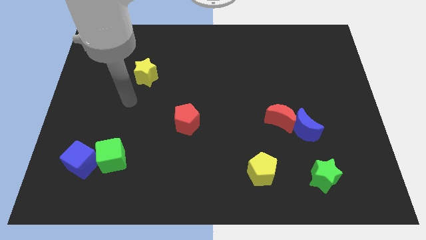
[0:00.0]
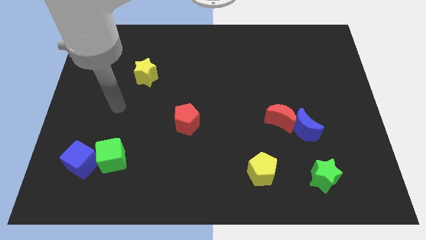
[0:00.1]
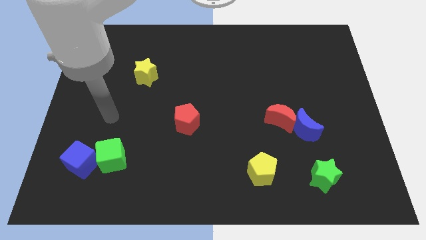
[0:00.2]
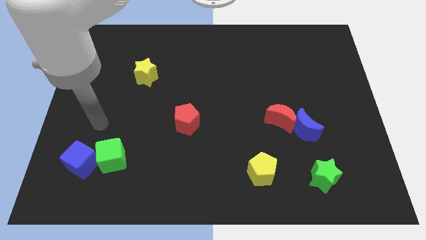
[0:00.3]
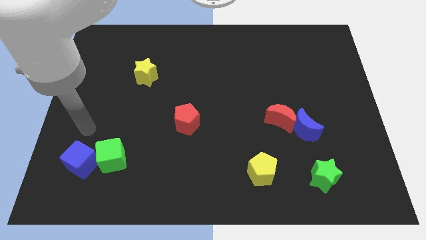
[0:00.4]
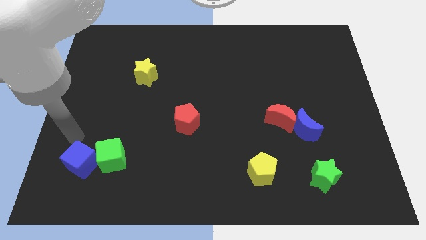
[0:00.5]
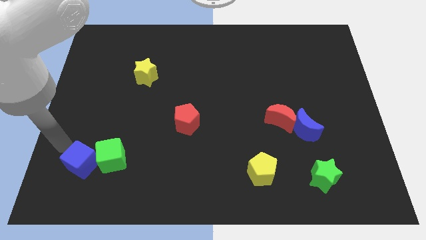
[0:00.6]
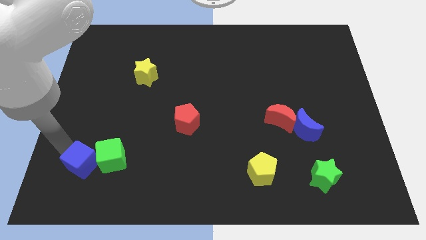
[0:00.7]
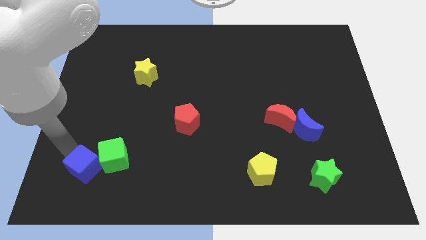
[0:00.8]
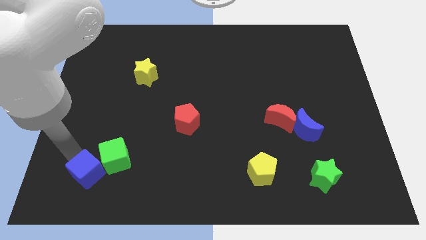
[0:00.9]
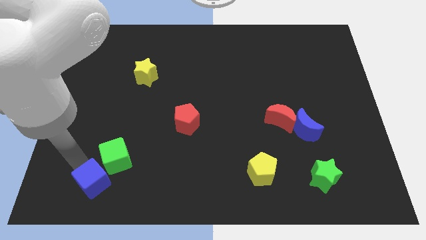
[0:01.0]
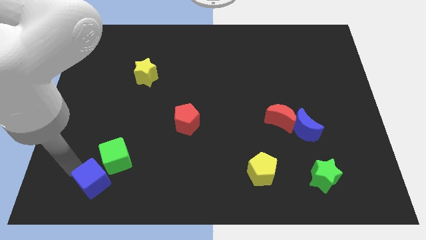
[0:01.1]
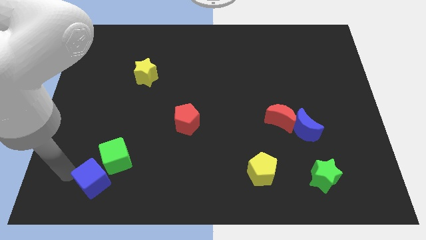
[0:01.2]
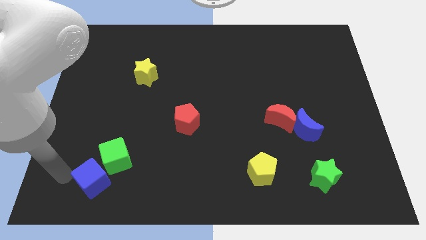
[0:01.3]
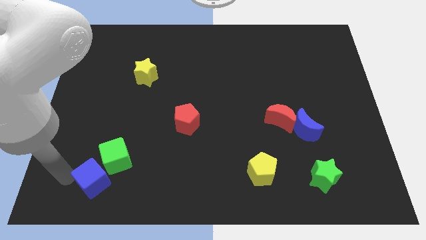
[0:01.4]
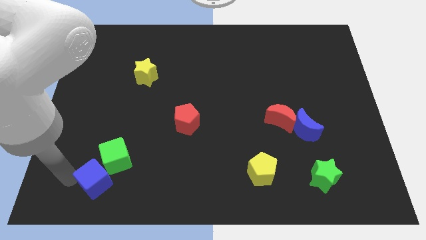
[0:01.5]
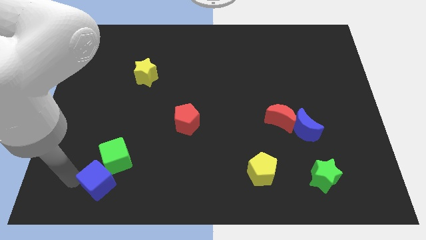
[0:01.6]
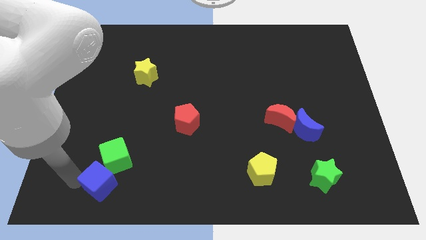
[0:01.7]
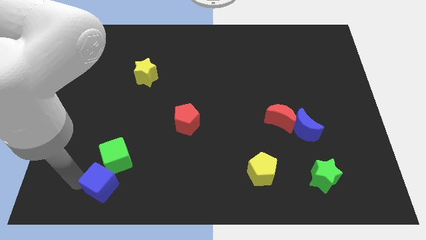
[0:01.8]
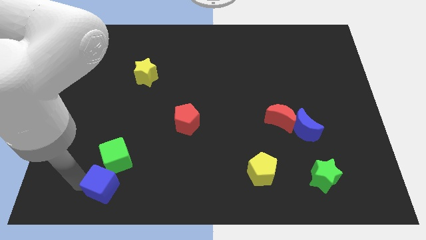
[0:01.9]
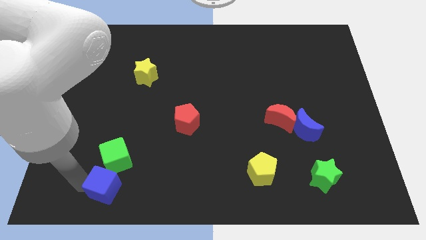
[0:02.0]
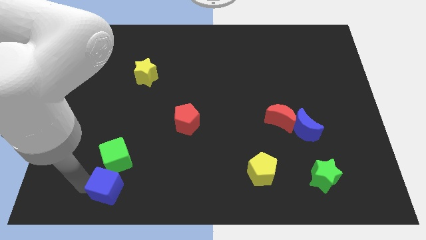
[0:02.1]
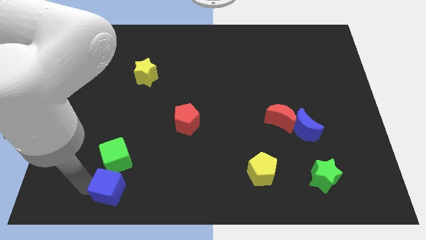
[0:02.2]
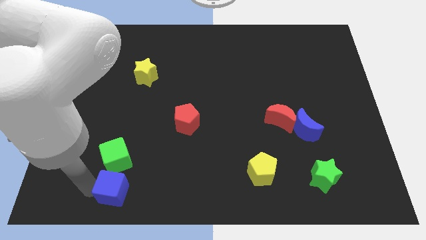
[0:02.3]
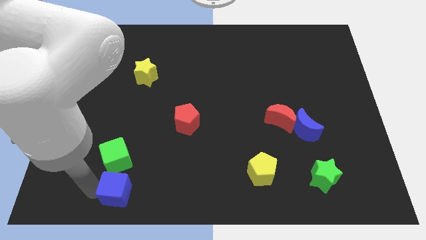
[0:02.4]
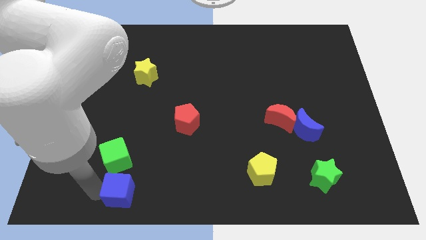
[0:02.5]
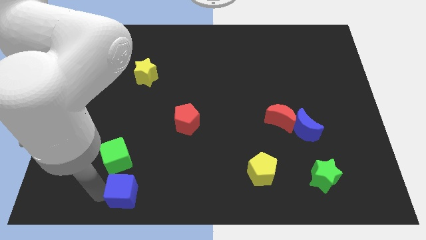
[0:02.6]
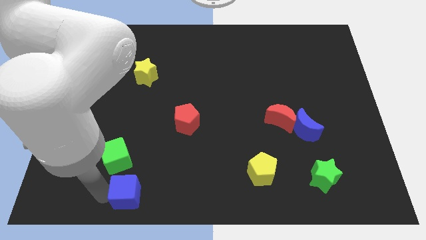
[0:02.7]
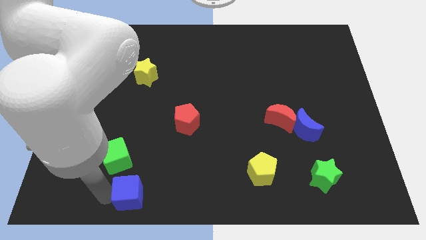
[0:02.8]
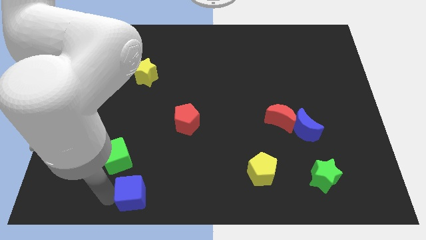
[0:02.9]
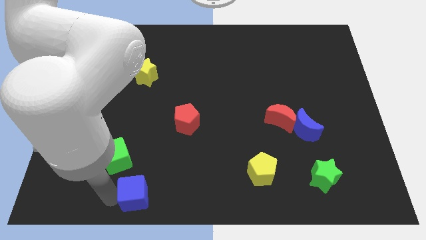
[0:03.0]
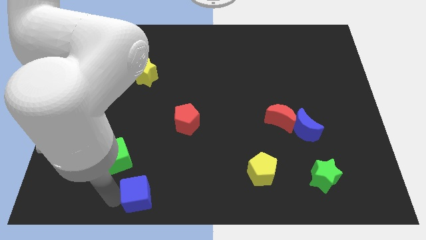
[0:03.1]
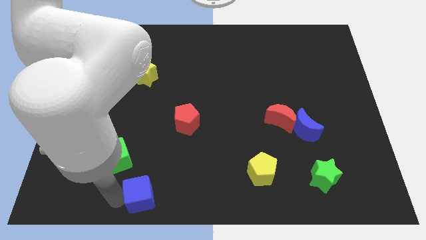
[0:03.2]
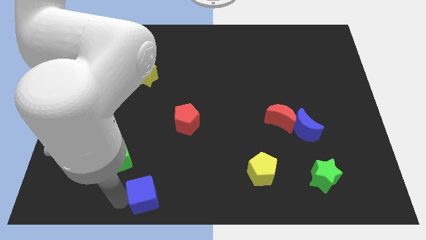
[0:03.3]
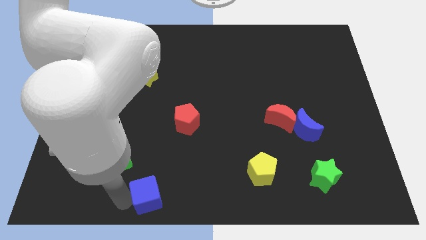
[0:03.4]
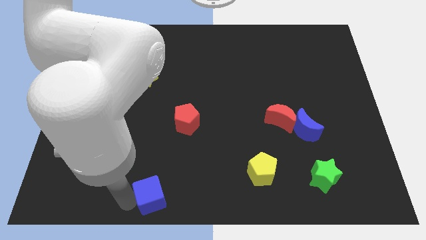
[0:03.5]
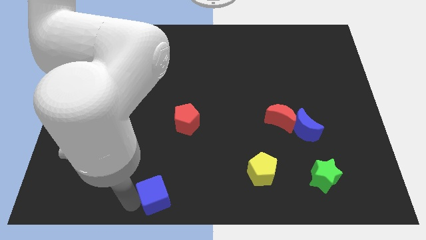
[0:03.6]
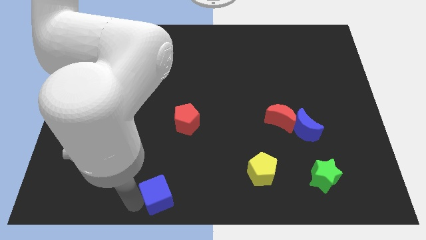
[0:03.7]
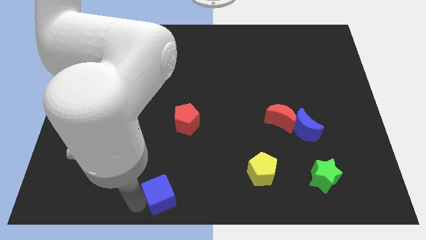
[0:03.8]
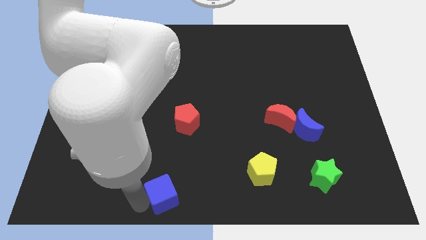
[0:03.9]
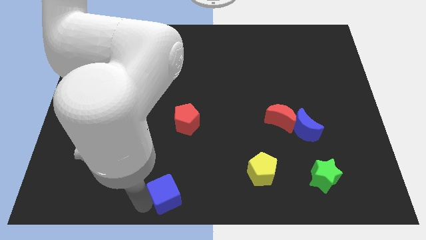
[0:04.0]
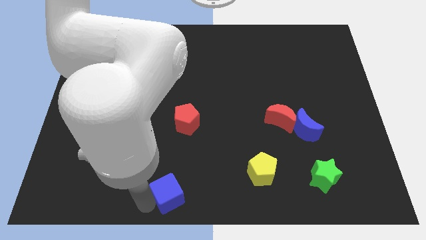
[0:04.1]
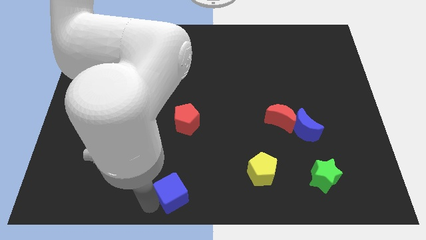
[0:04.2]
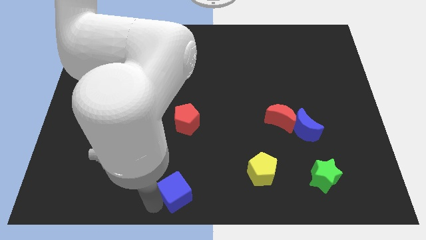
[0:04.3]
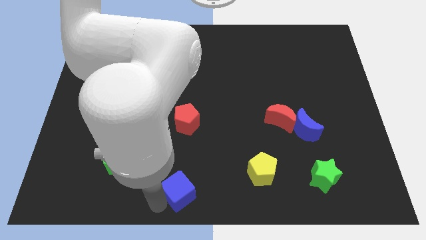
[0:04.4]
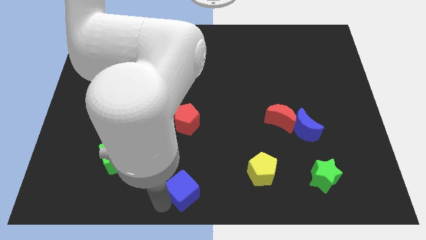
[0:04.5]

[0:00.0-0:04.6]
push the blue cube to the right

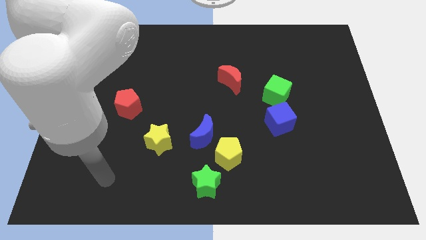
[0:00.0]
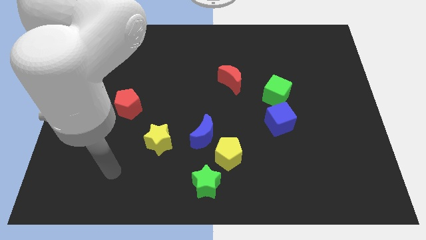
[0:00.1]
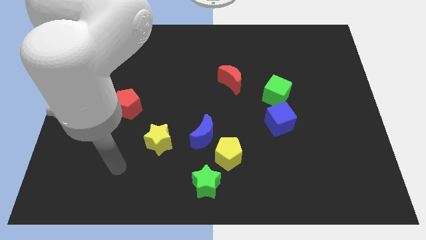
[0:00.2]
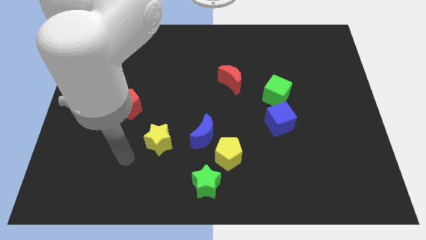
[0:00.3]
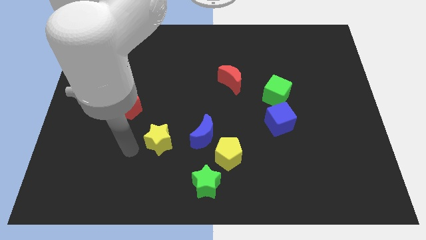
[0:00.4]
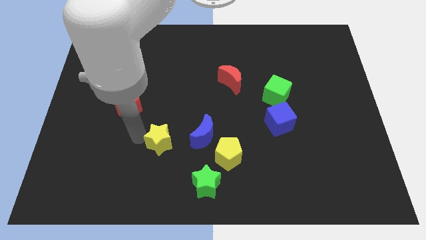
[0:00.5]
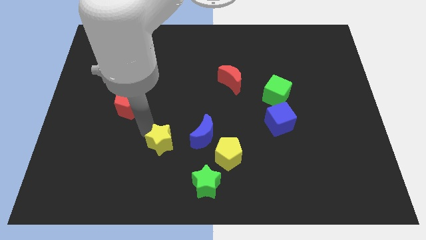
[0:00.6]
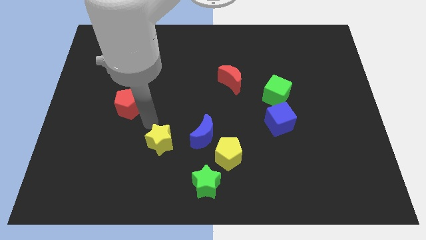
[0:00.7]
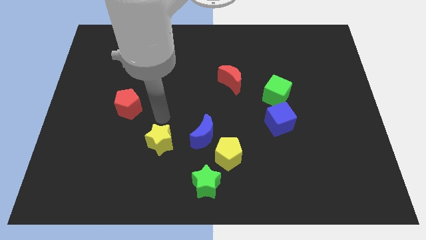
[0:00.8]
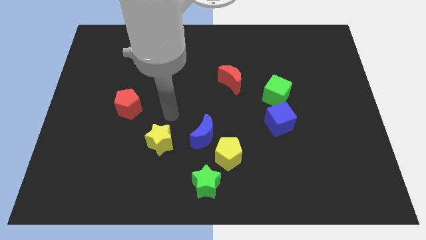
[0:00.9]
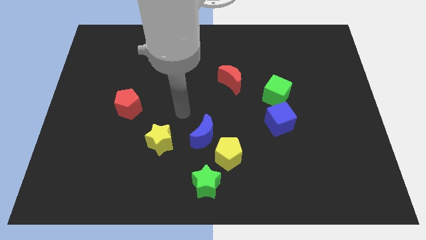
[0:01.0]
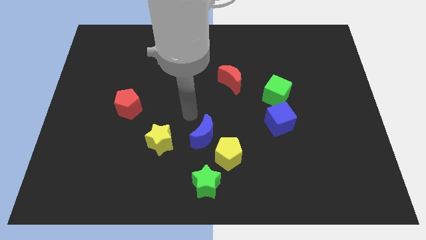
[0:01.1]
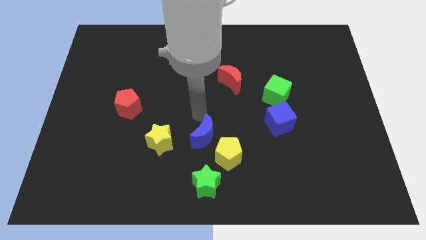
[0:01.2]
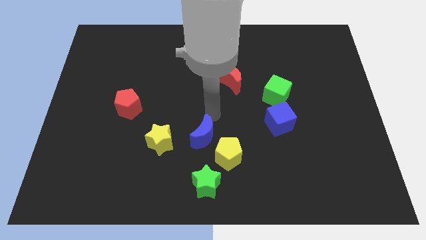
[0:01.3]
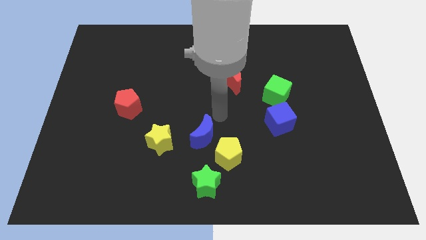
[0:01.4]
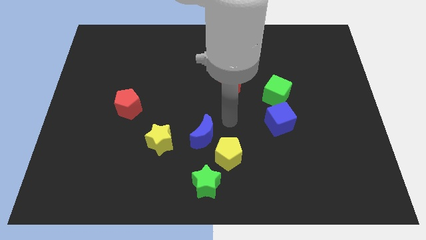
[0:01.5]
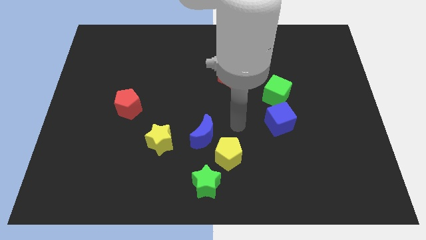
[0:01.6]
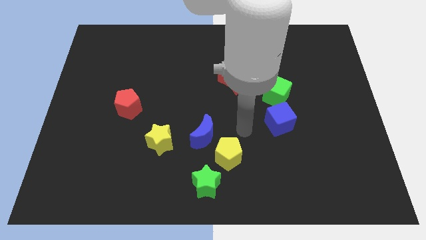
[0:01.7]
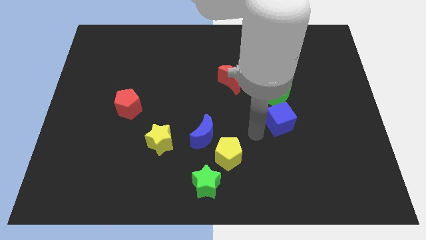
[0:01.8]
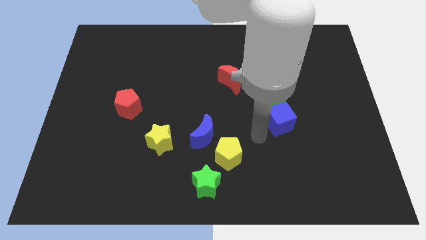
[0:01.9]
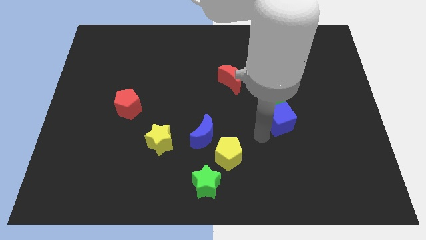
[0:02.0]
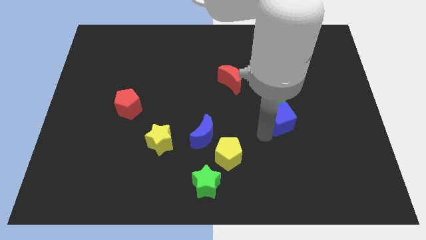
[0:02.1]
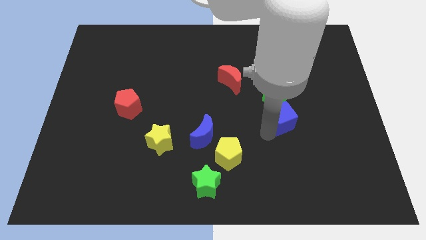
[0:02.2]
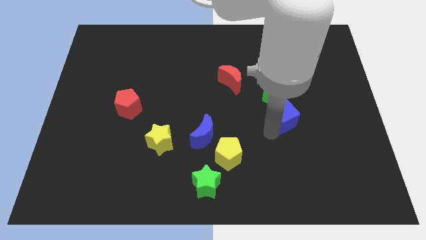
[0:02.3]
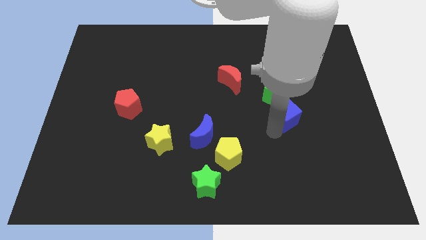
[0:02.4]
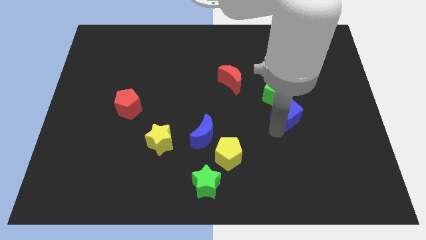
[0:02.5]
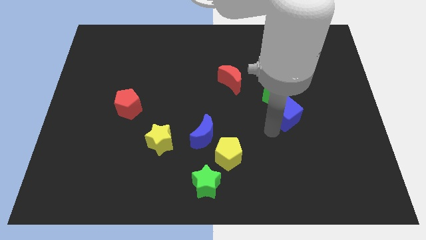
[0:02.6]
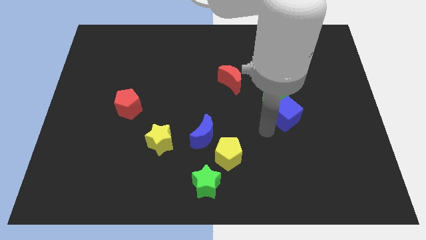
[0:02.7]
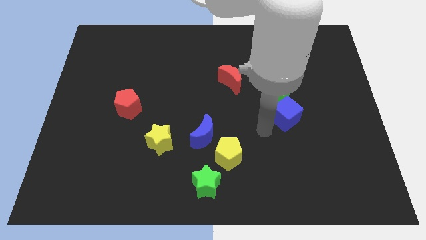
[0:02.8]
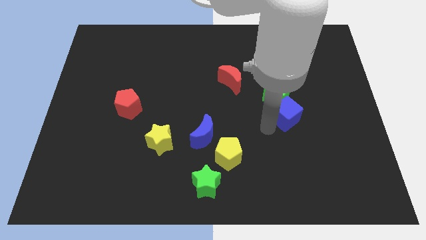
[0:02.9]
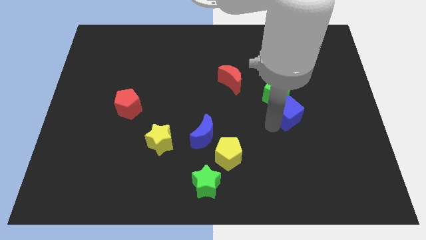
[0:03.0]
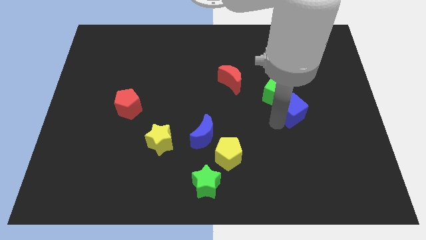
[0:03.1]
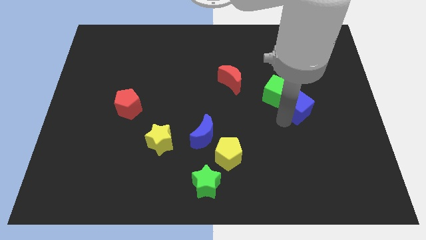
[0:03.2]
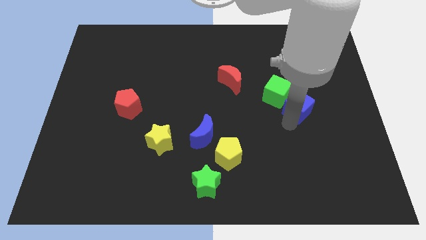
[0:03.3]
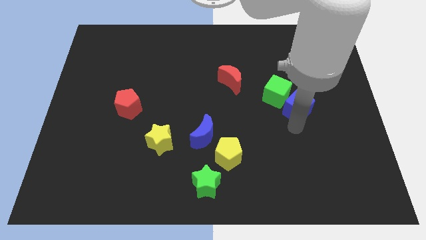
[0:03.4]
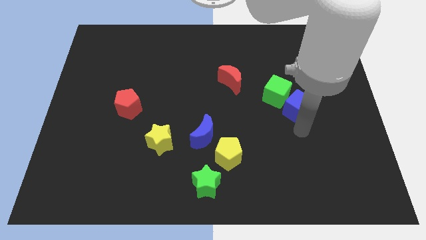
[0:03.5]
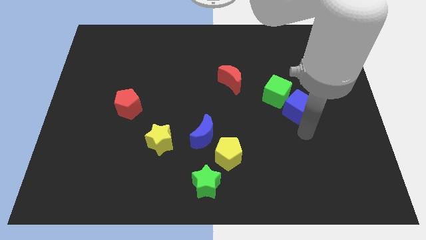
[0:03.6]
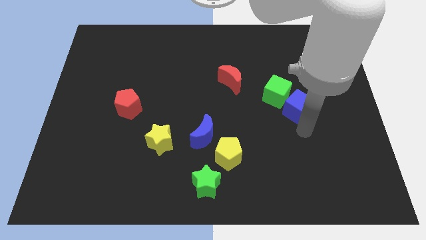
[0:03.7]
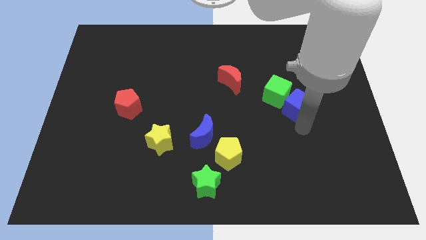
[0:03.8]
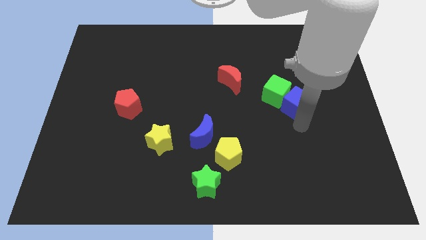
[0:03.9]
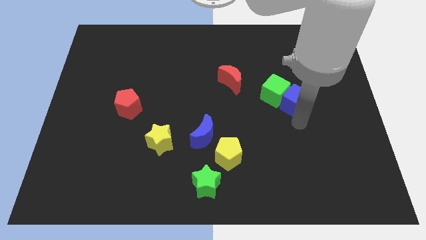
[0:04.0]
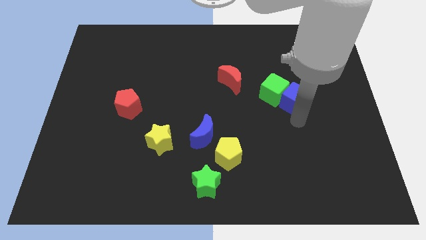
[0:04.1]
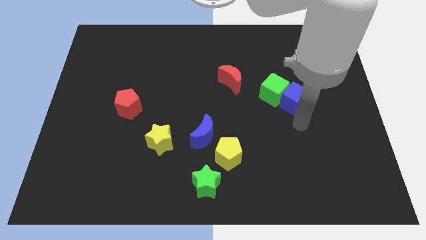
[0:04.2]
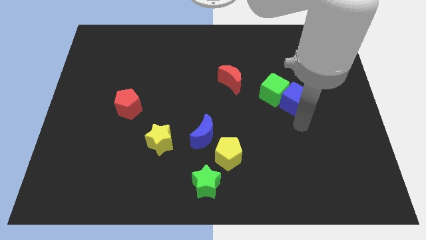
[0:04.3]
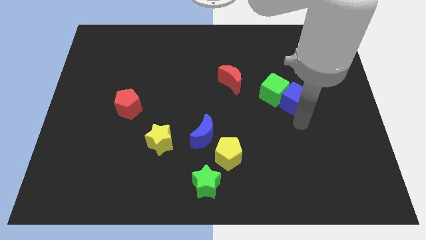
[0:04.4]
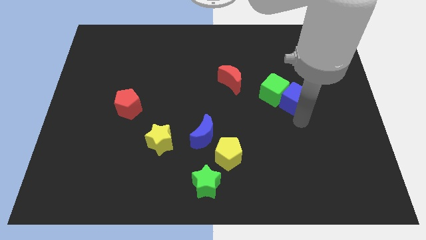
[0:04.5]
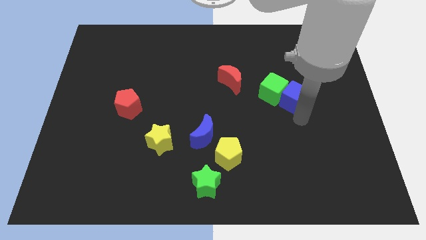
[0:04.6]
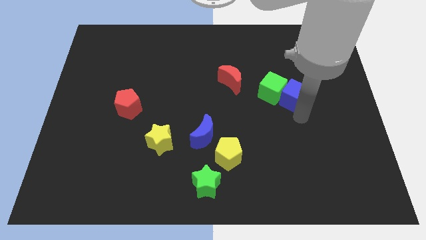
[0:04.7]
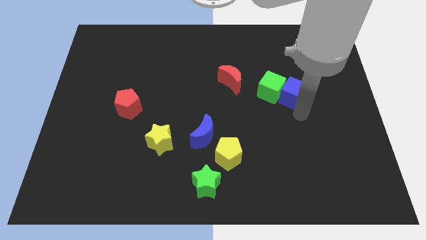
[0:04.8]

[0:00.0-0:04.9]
push the blue cube upwards a little bit
